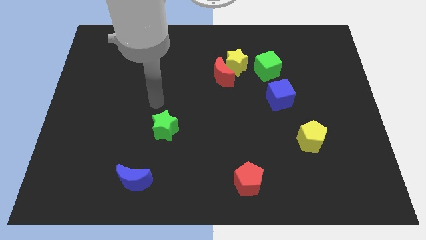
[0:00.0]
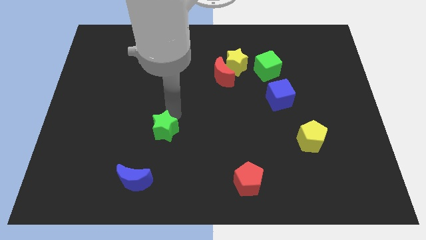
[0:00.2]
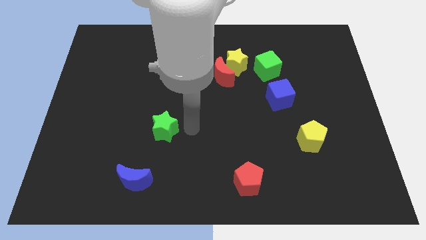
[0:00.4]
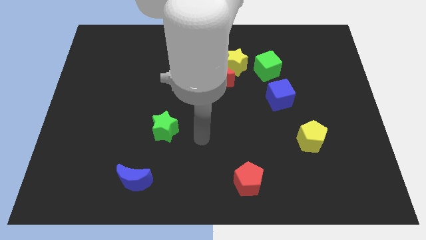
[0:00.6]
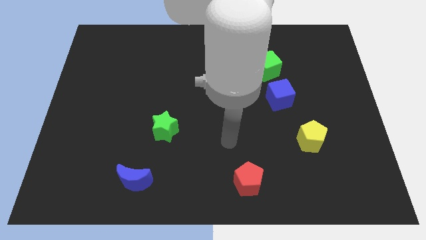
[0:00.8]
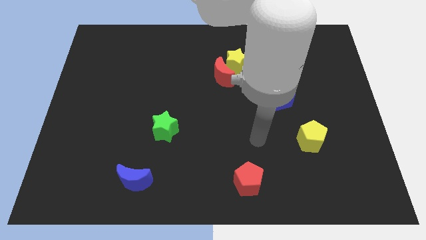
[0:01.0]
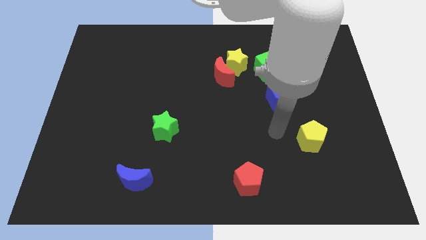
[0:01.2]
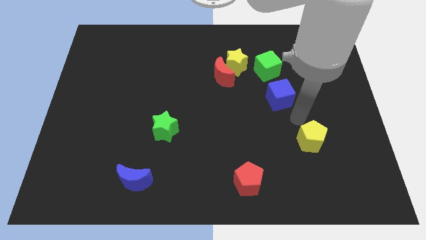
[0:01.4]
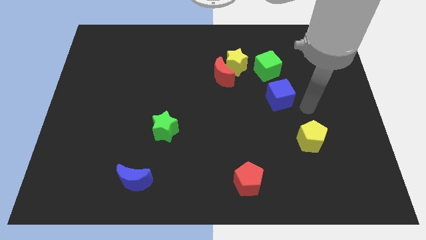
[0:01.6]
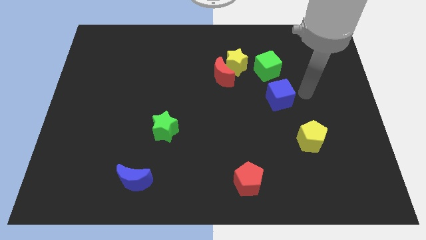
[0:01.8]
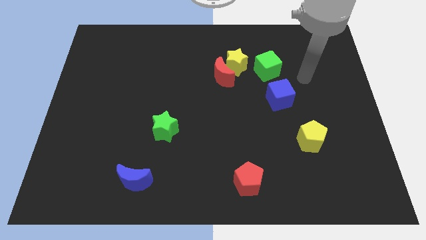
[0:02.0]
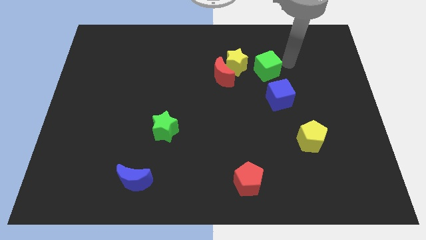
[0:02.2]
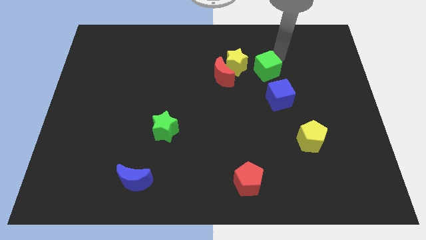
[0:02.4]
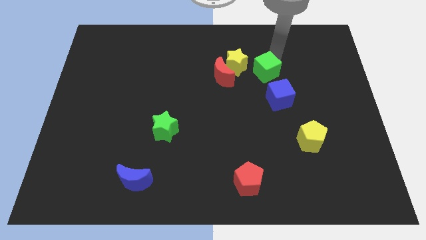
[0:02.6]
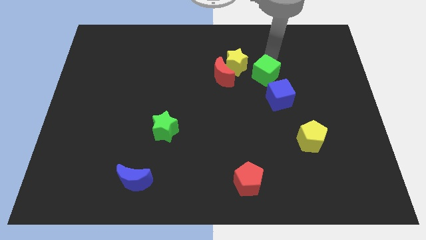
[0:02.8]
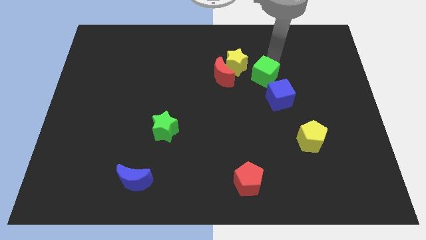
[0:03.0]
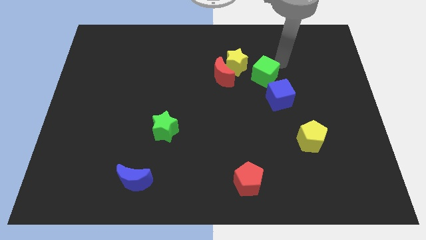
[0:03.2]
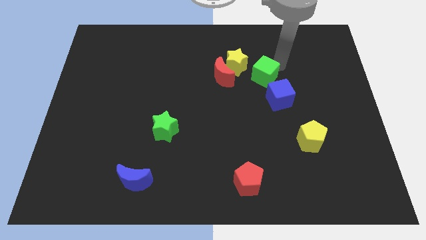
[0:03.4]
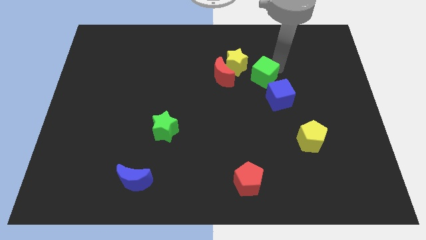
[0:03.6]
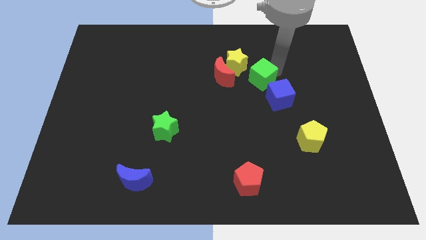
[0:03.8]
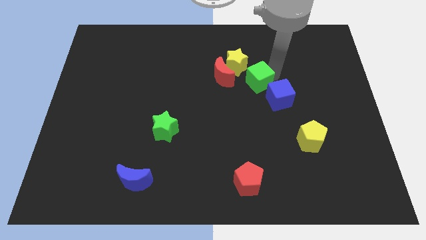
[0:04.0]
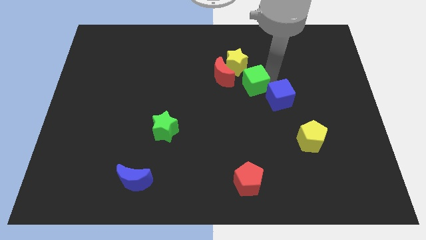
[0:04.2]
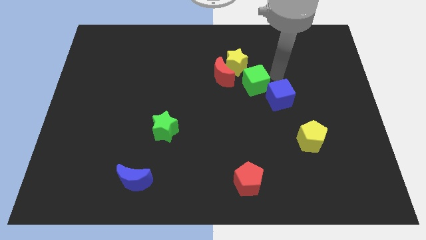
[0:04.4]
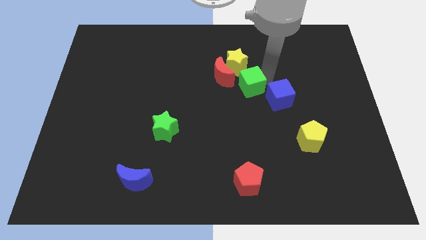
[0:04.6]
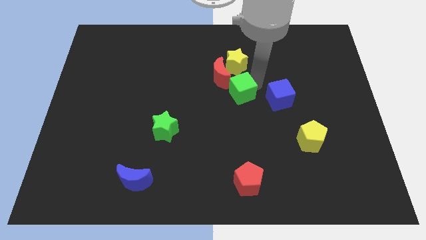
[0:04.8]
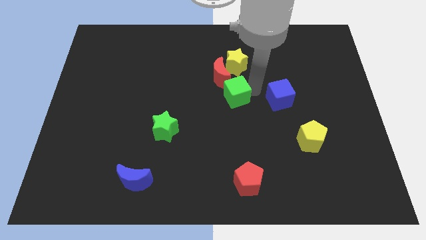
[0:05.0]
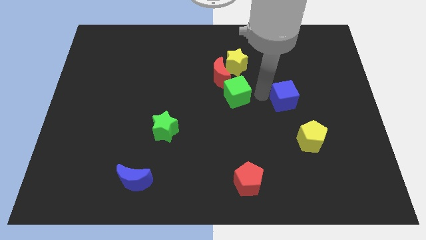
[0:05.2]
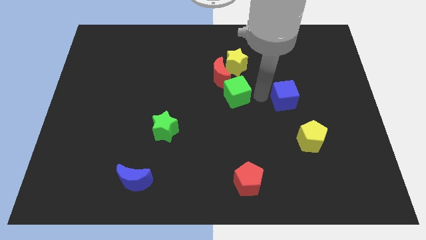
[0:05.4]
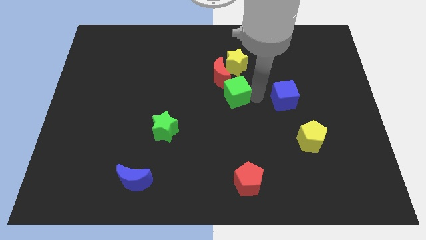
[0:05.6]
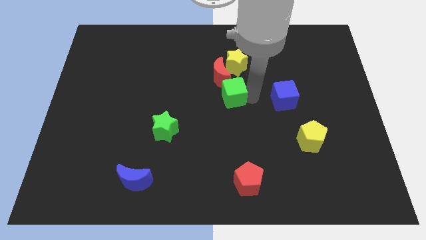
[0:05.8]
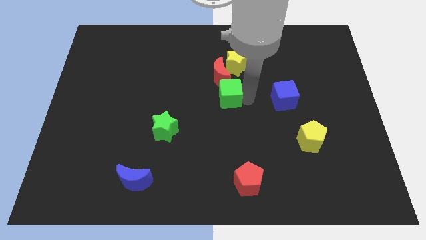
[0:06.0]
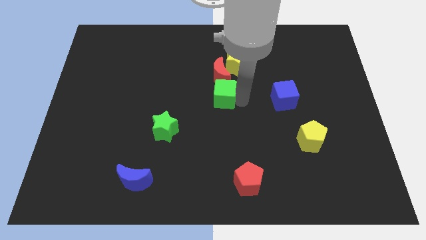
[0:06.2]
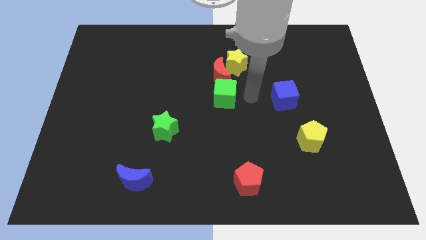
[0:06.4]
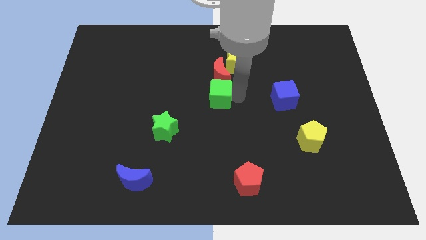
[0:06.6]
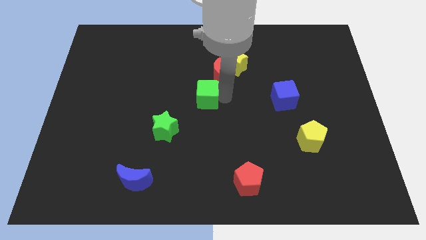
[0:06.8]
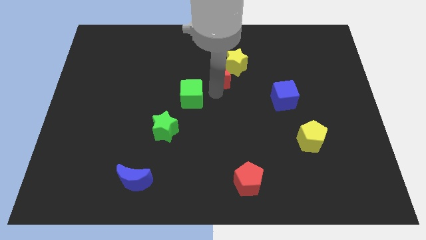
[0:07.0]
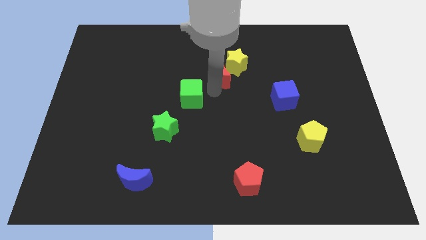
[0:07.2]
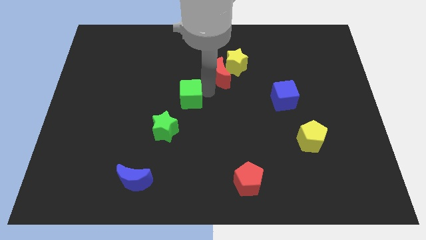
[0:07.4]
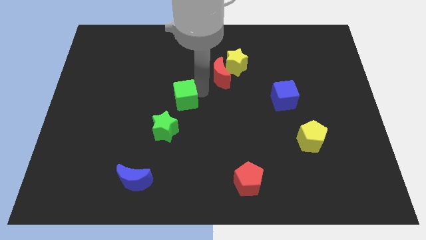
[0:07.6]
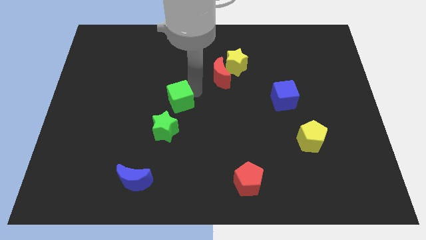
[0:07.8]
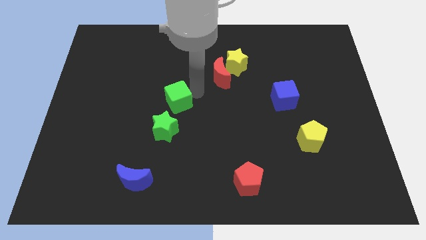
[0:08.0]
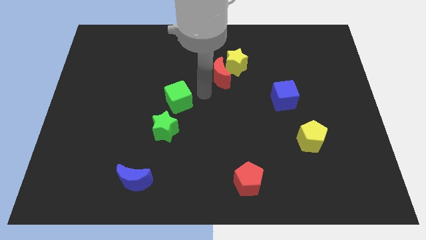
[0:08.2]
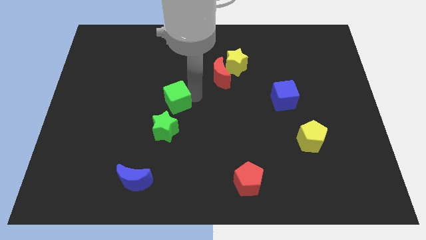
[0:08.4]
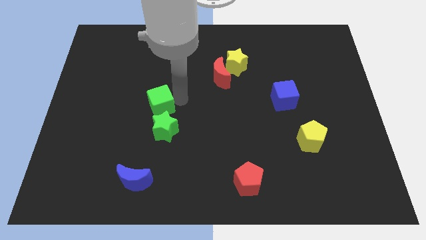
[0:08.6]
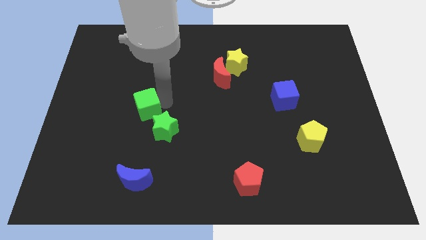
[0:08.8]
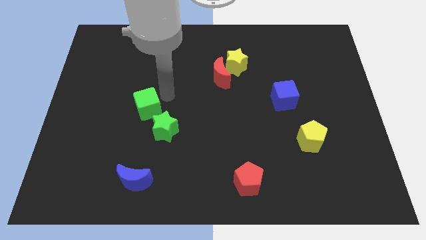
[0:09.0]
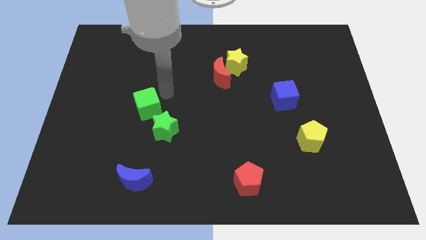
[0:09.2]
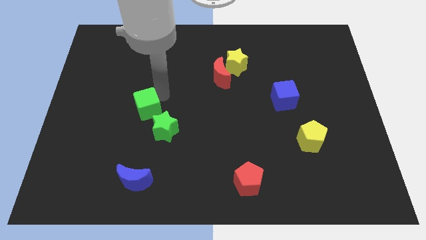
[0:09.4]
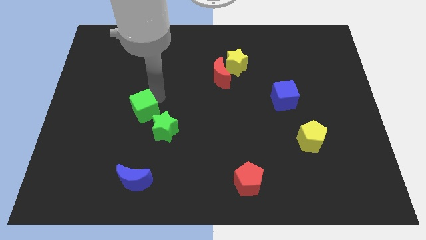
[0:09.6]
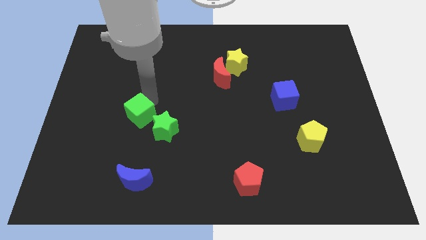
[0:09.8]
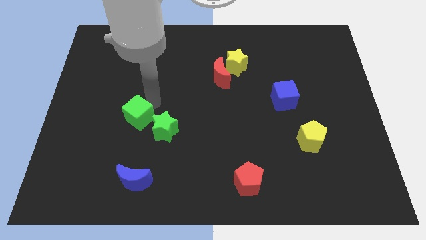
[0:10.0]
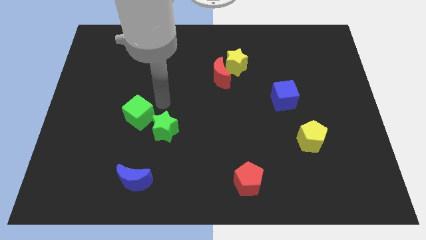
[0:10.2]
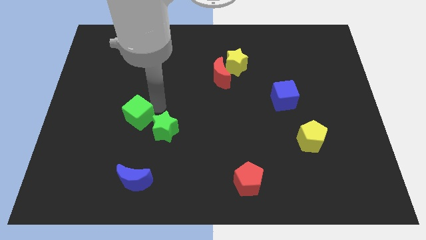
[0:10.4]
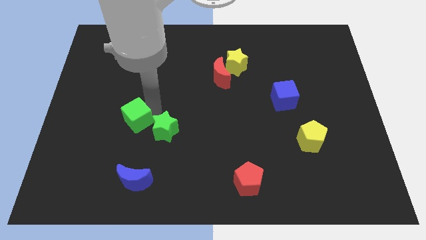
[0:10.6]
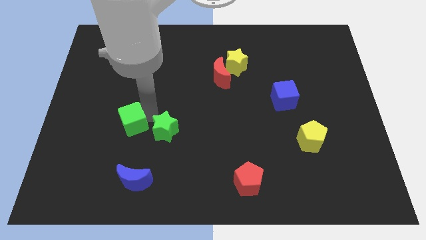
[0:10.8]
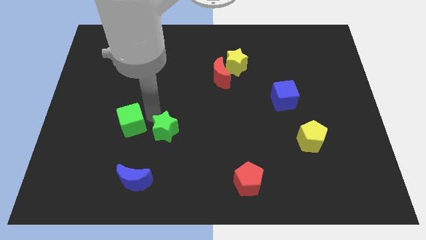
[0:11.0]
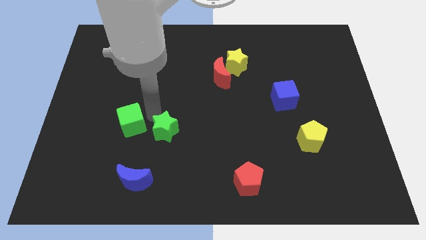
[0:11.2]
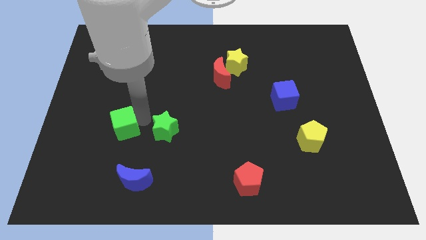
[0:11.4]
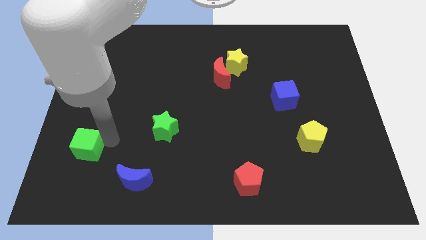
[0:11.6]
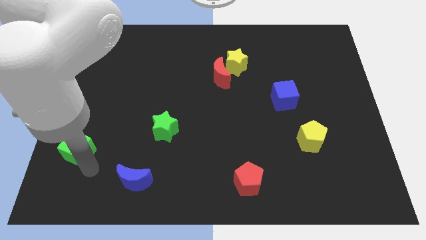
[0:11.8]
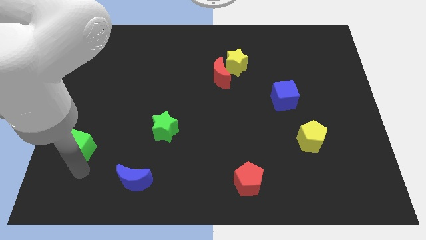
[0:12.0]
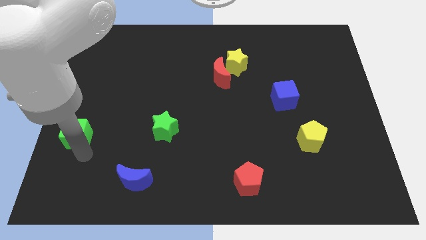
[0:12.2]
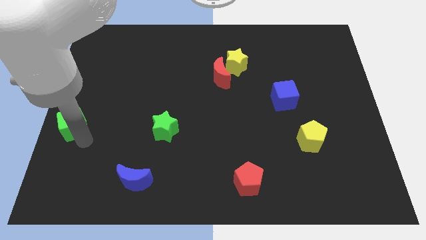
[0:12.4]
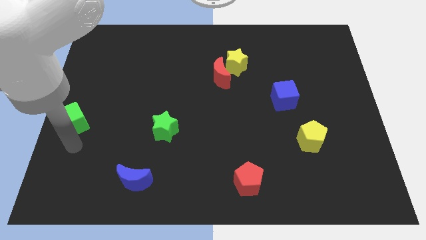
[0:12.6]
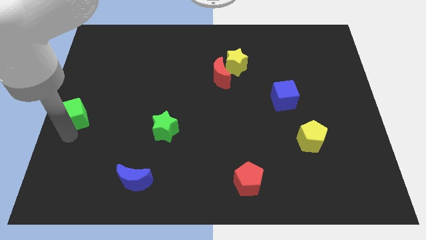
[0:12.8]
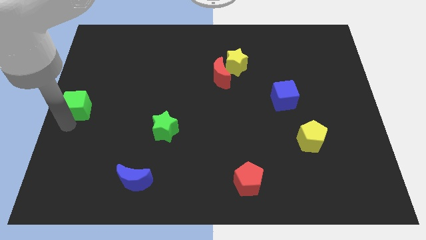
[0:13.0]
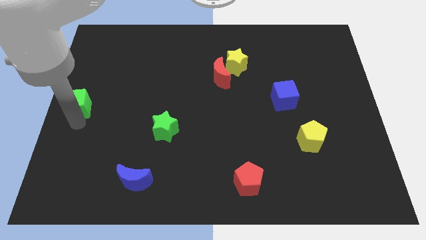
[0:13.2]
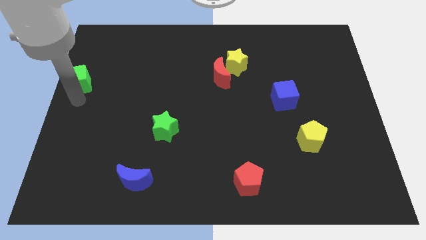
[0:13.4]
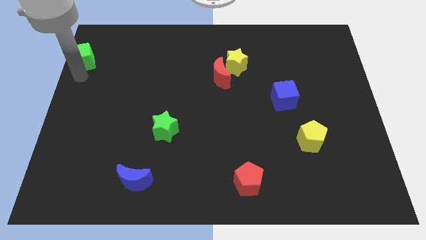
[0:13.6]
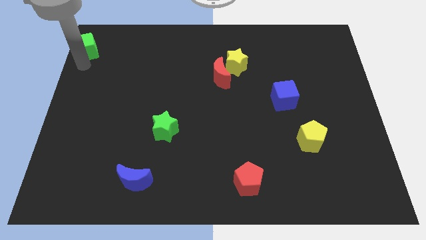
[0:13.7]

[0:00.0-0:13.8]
push the green cube to the top left
